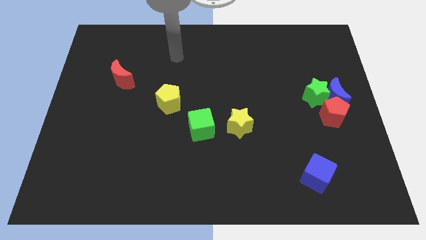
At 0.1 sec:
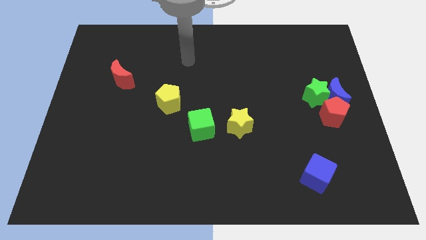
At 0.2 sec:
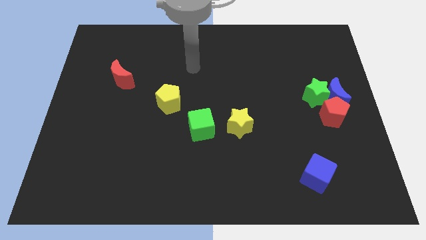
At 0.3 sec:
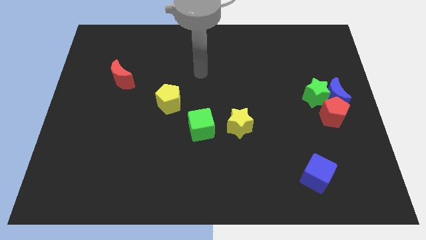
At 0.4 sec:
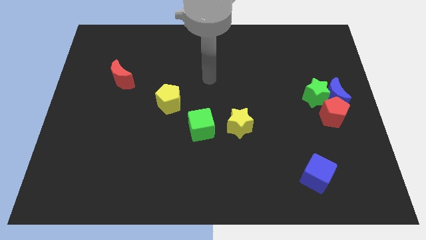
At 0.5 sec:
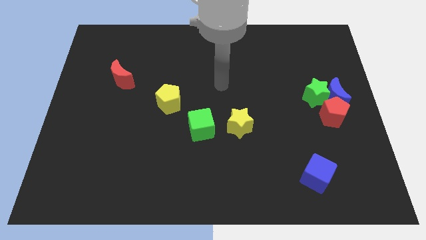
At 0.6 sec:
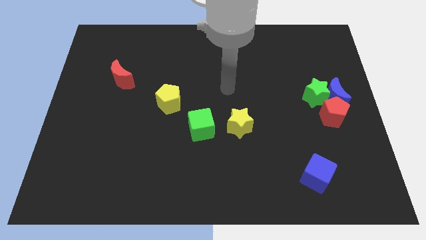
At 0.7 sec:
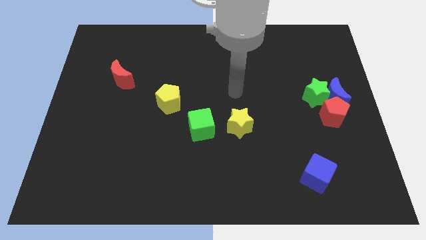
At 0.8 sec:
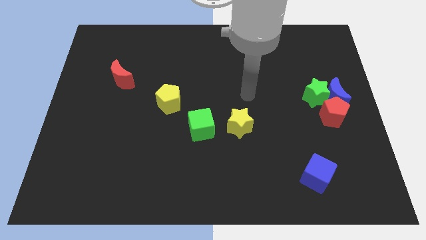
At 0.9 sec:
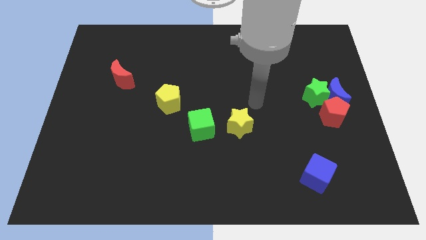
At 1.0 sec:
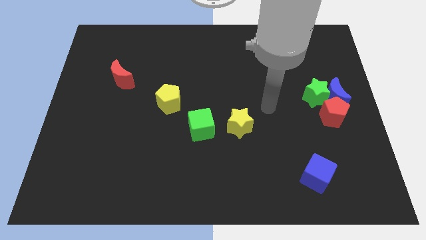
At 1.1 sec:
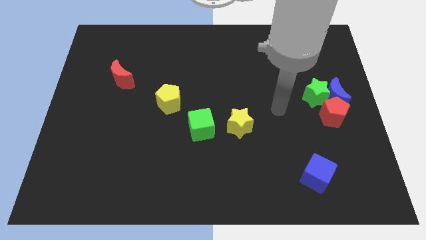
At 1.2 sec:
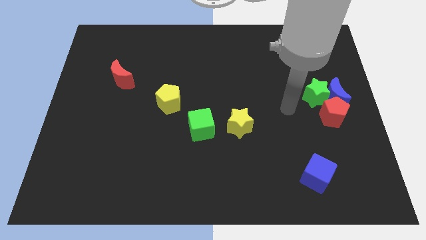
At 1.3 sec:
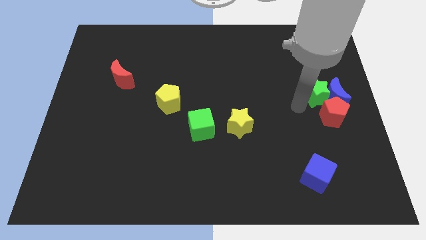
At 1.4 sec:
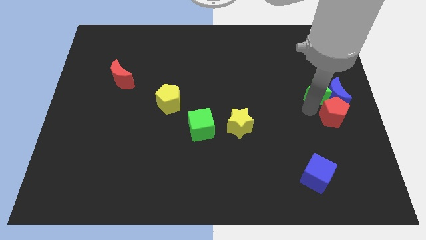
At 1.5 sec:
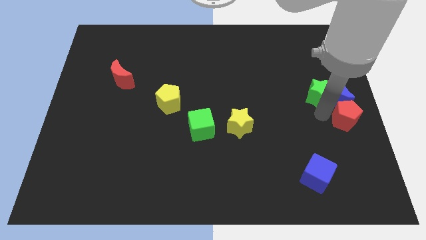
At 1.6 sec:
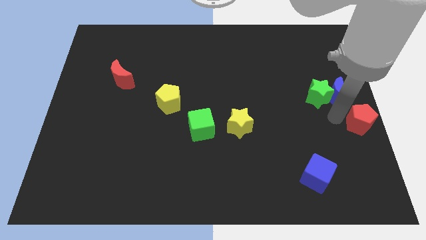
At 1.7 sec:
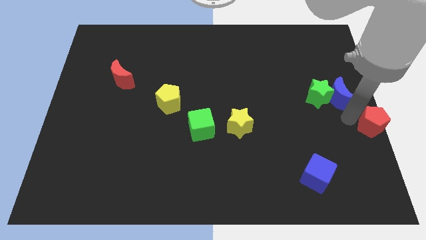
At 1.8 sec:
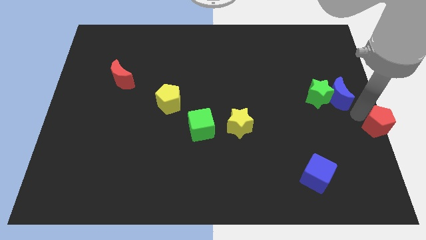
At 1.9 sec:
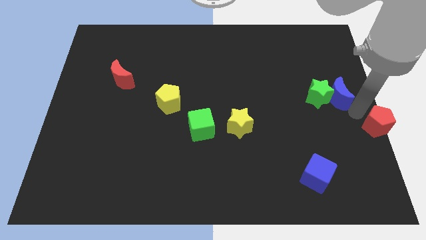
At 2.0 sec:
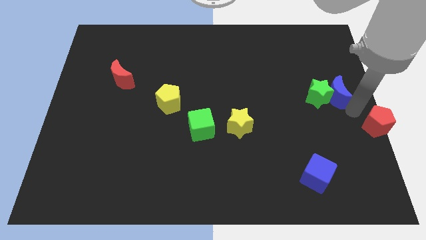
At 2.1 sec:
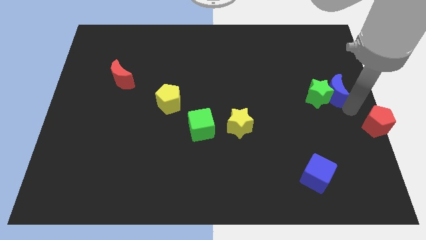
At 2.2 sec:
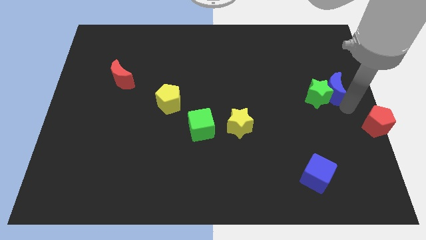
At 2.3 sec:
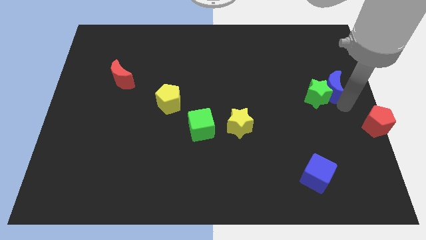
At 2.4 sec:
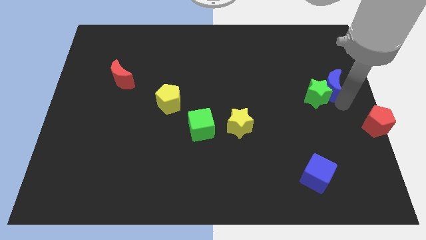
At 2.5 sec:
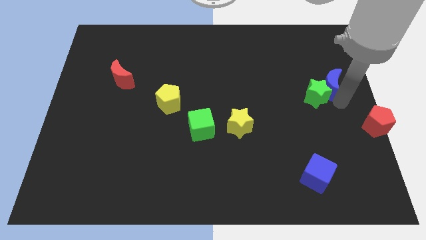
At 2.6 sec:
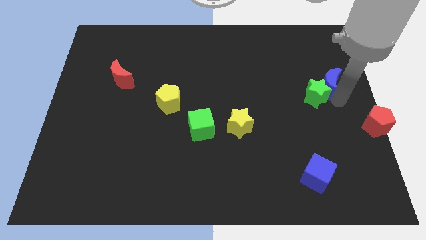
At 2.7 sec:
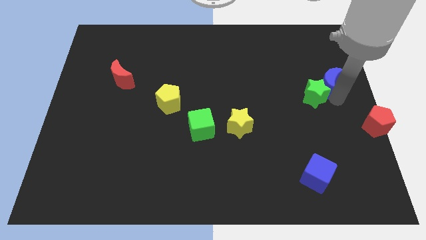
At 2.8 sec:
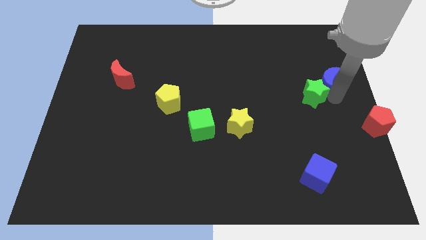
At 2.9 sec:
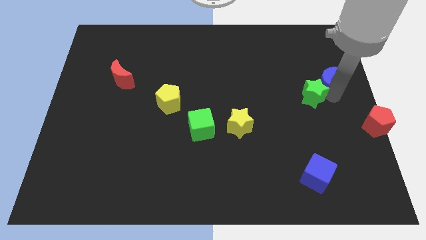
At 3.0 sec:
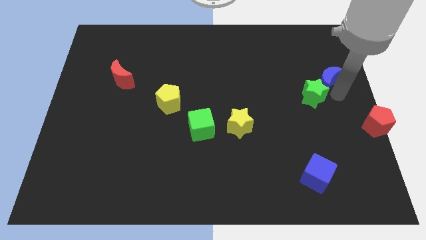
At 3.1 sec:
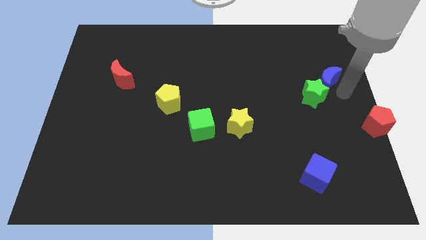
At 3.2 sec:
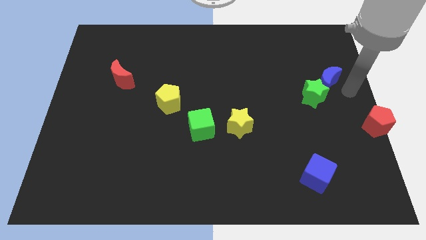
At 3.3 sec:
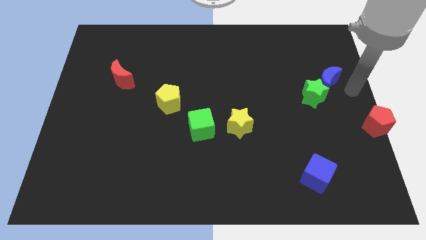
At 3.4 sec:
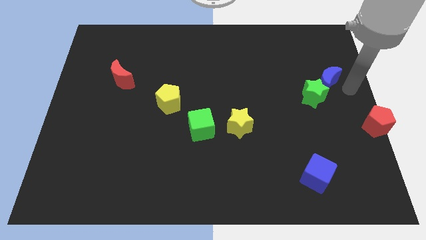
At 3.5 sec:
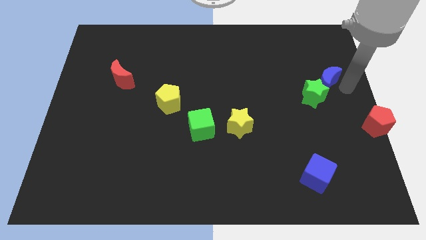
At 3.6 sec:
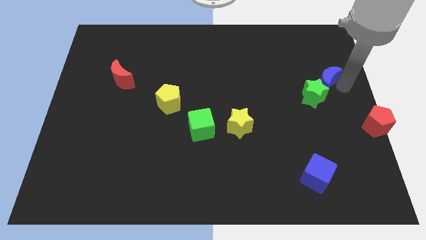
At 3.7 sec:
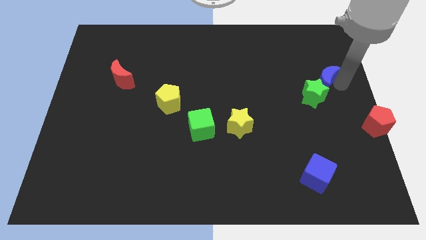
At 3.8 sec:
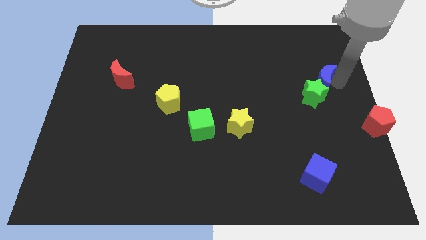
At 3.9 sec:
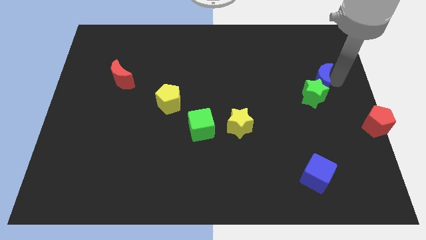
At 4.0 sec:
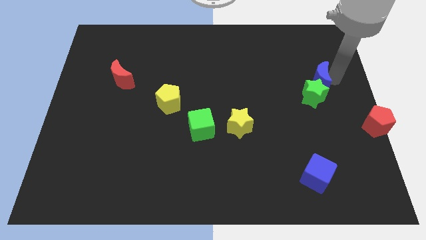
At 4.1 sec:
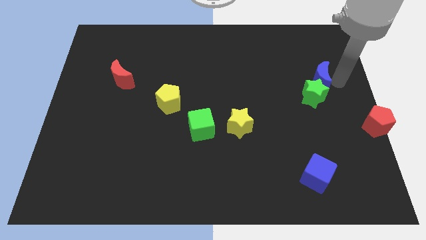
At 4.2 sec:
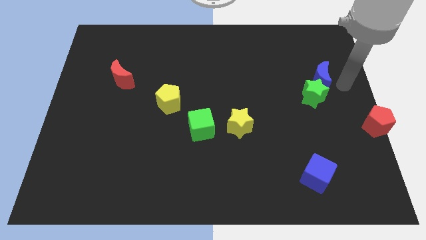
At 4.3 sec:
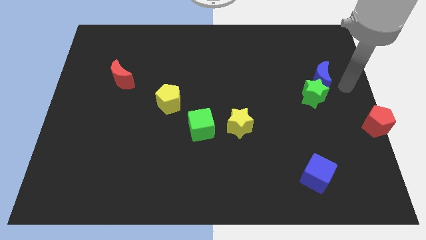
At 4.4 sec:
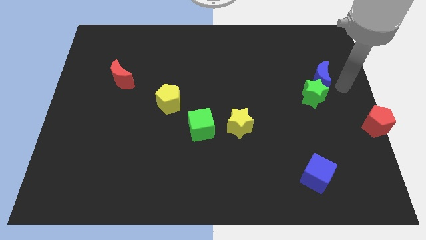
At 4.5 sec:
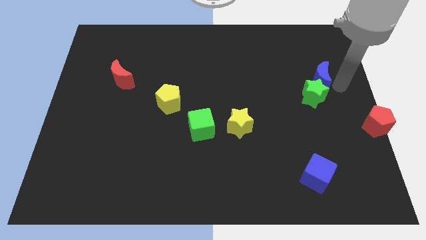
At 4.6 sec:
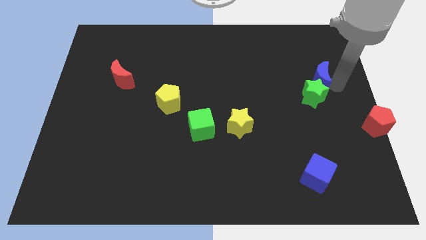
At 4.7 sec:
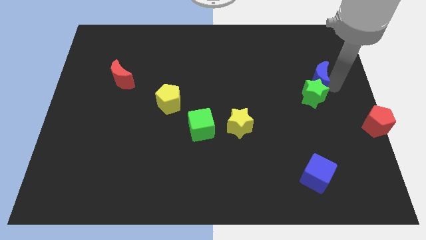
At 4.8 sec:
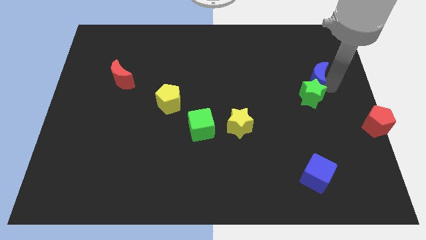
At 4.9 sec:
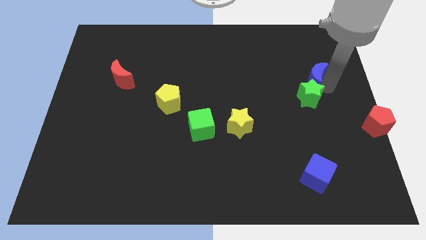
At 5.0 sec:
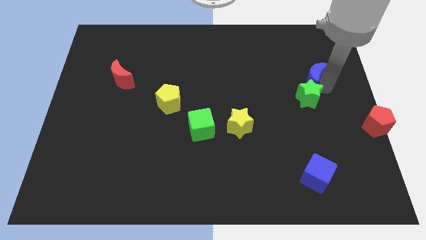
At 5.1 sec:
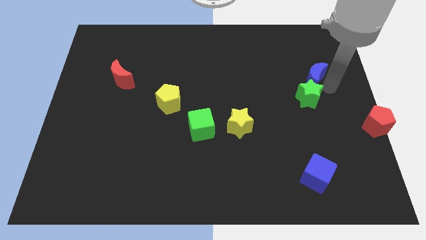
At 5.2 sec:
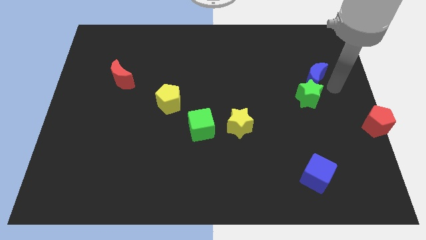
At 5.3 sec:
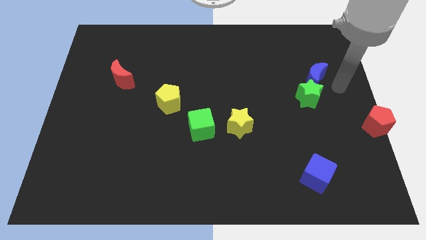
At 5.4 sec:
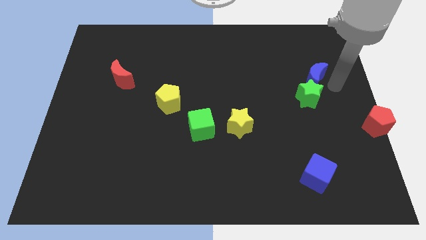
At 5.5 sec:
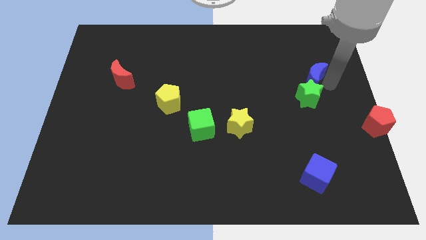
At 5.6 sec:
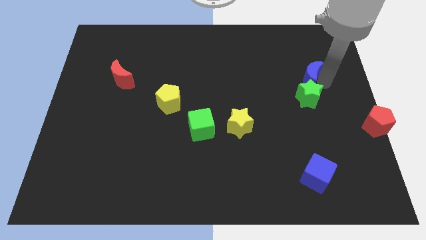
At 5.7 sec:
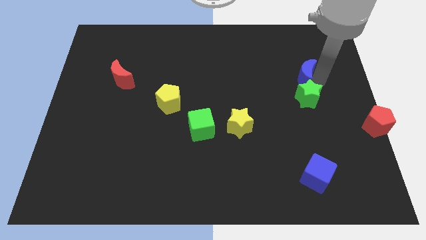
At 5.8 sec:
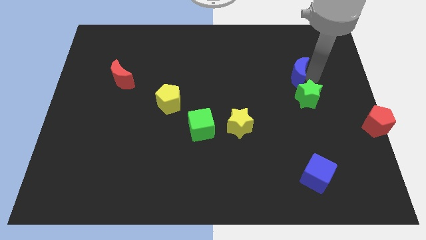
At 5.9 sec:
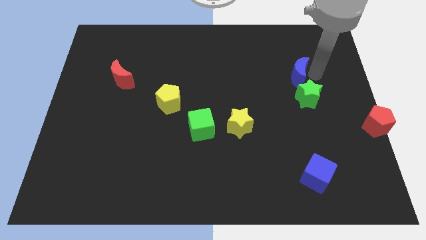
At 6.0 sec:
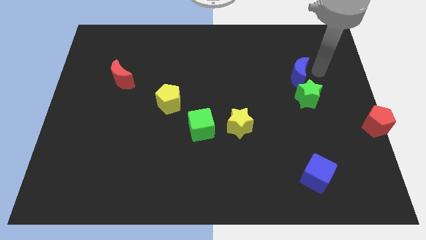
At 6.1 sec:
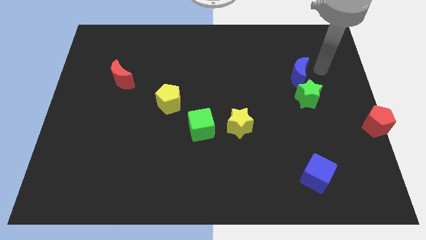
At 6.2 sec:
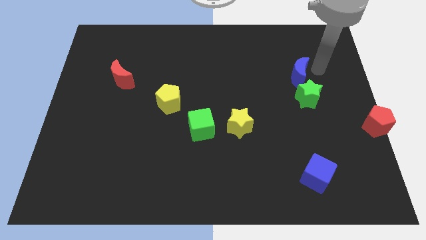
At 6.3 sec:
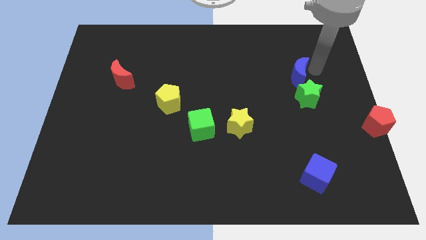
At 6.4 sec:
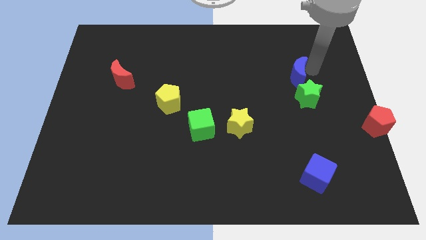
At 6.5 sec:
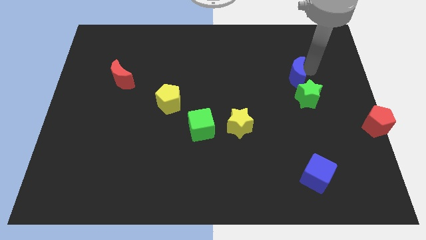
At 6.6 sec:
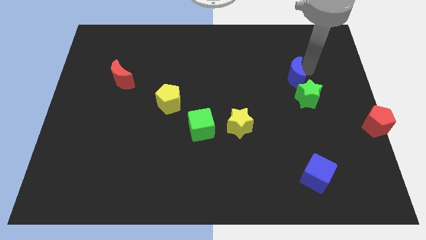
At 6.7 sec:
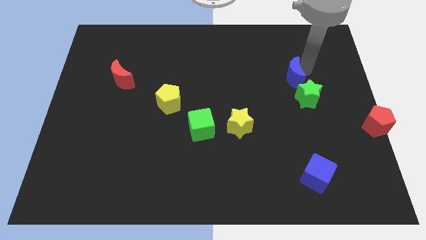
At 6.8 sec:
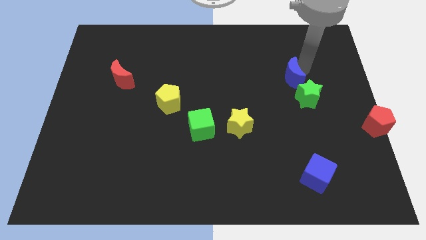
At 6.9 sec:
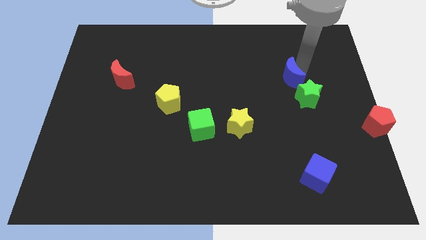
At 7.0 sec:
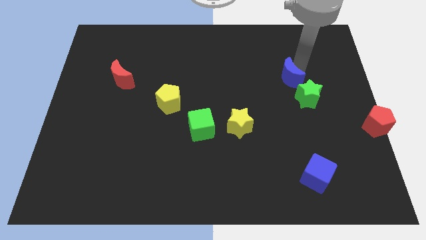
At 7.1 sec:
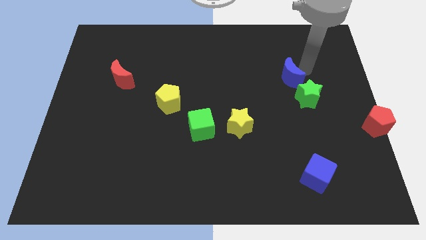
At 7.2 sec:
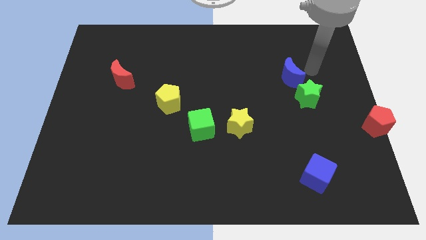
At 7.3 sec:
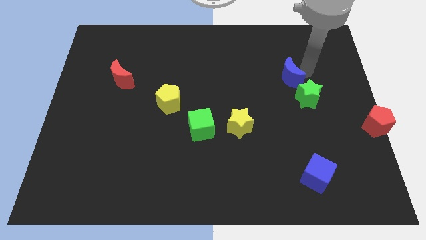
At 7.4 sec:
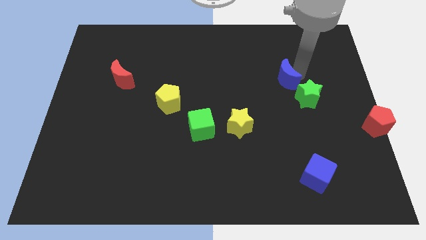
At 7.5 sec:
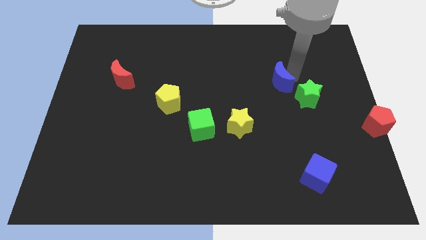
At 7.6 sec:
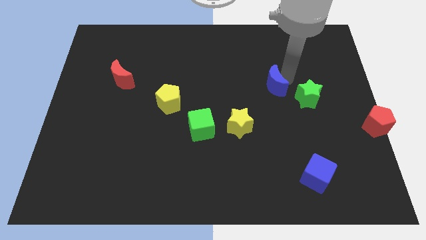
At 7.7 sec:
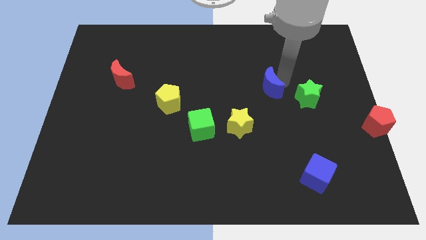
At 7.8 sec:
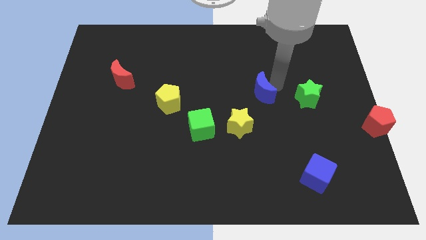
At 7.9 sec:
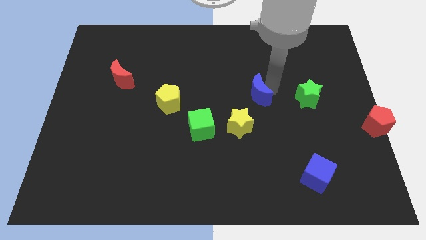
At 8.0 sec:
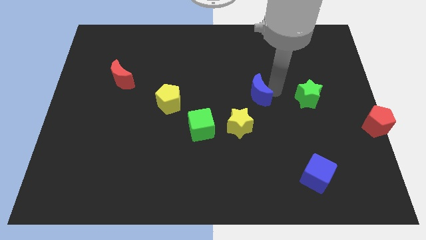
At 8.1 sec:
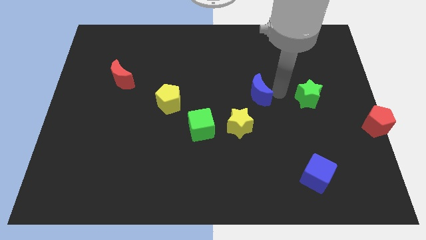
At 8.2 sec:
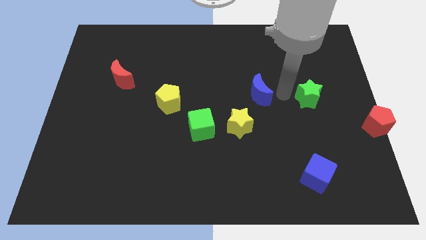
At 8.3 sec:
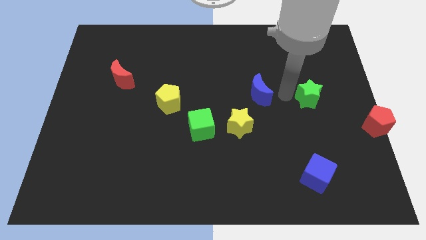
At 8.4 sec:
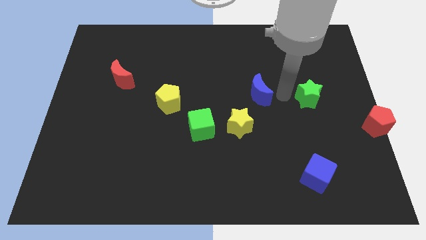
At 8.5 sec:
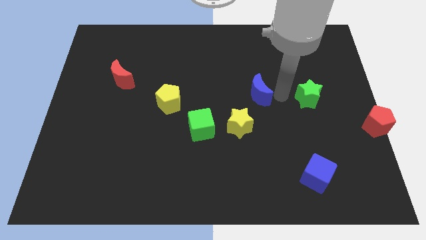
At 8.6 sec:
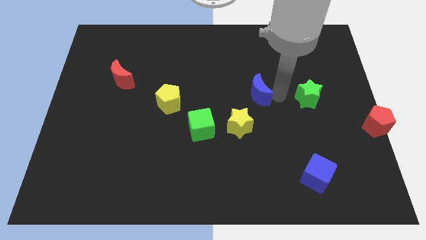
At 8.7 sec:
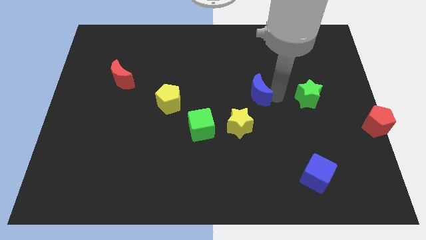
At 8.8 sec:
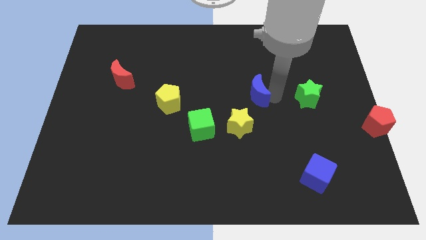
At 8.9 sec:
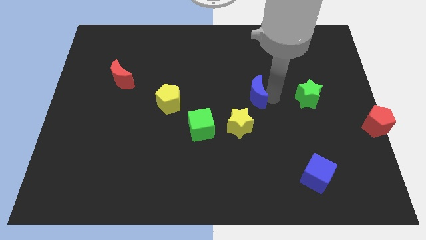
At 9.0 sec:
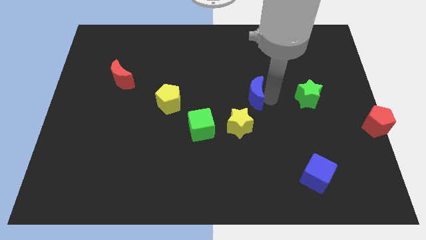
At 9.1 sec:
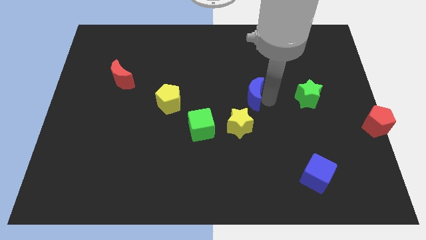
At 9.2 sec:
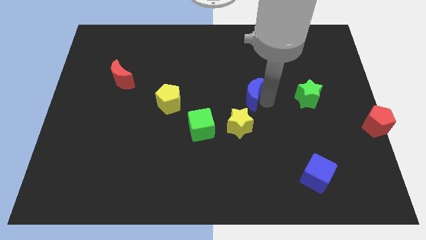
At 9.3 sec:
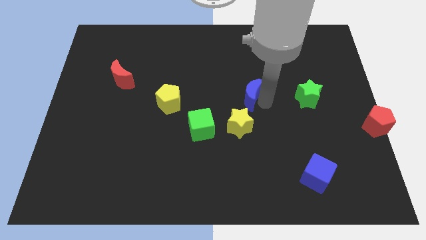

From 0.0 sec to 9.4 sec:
move the blue moon to the left
